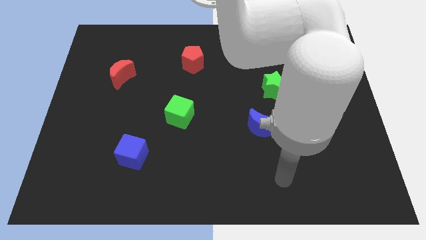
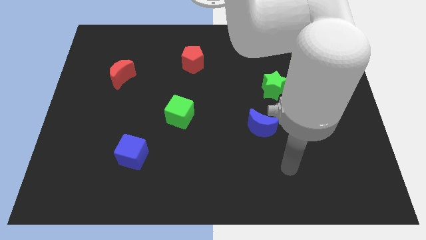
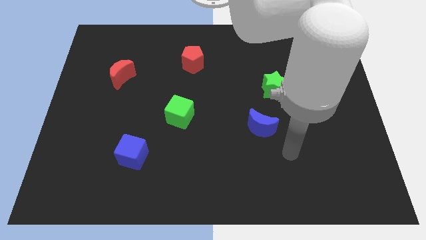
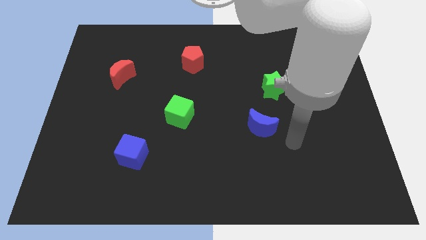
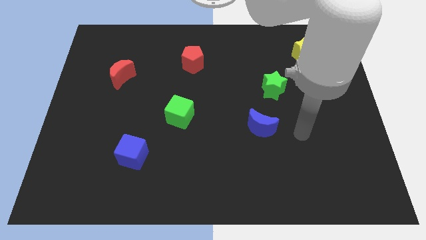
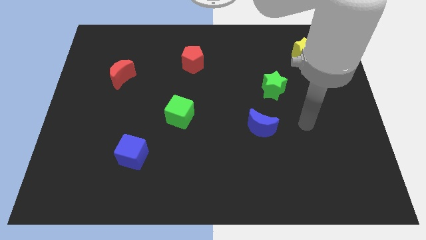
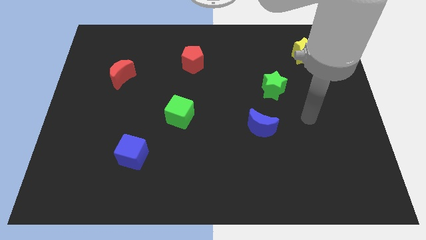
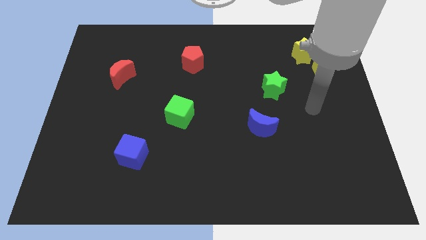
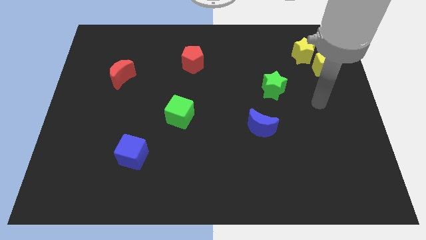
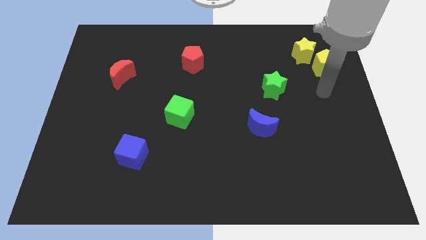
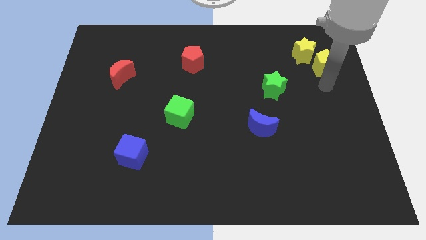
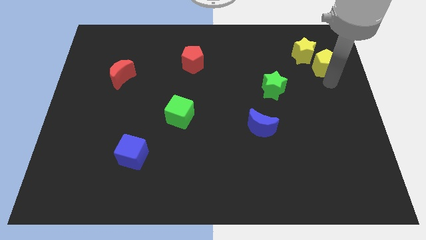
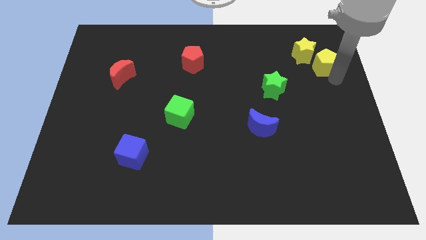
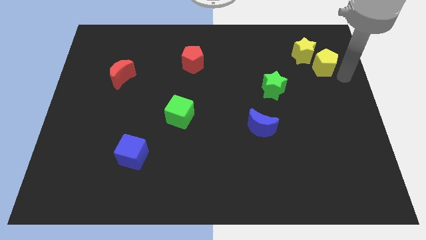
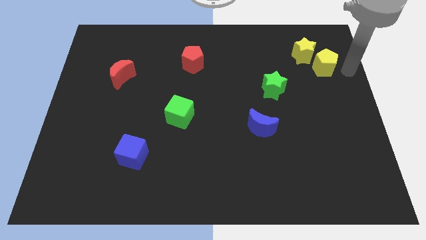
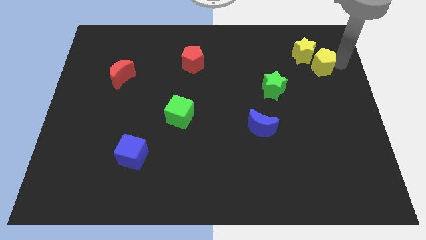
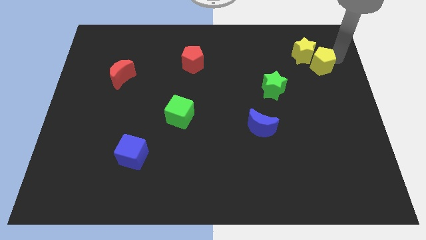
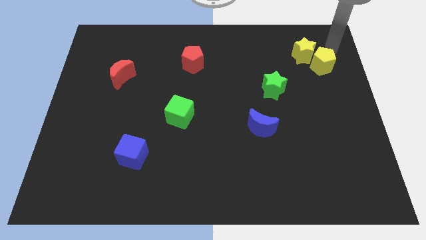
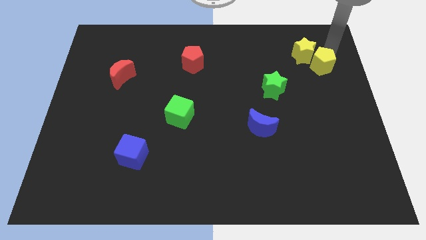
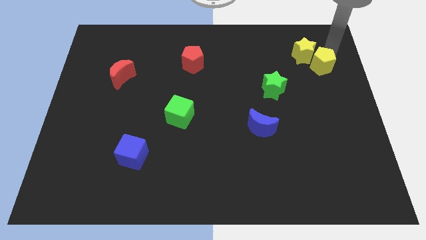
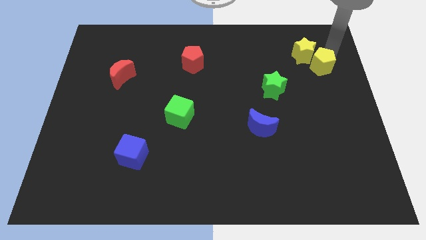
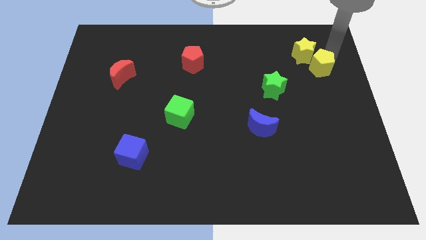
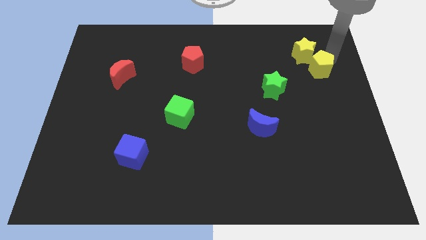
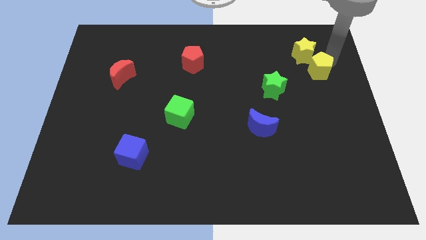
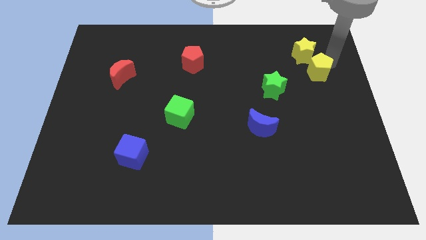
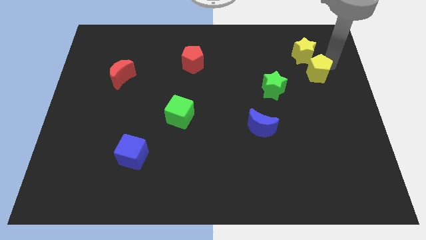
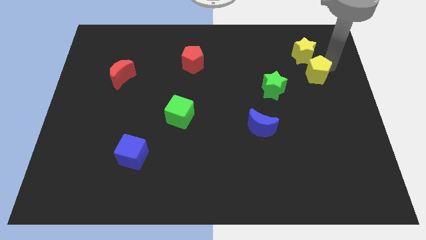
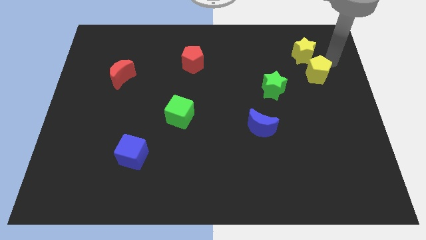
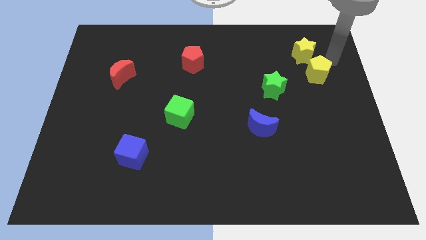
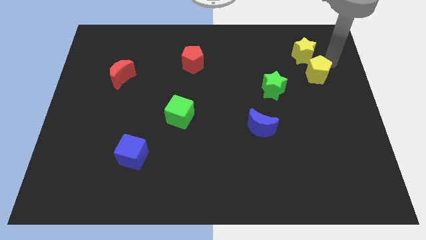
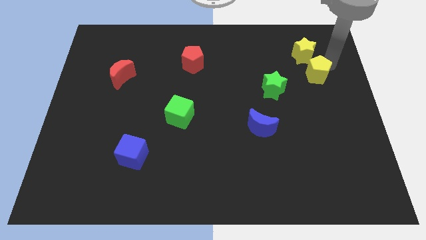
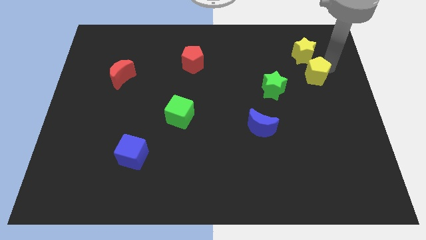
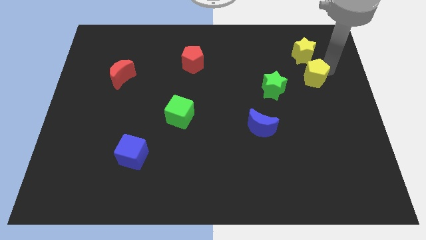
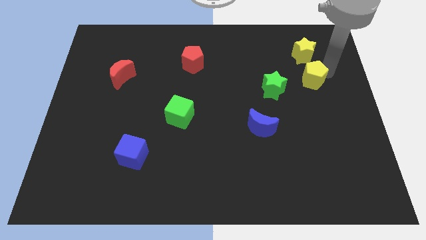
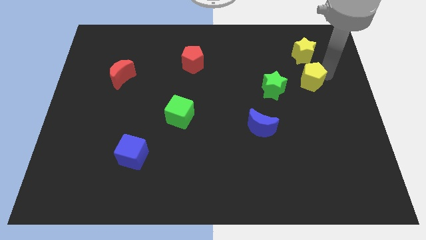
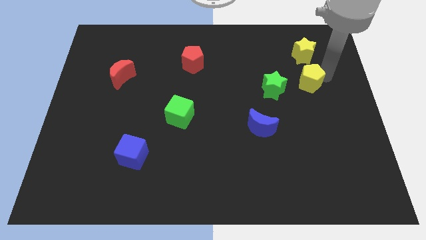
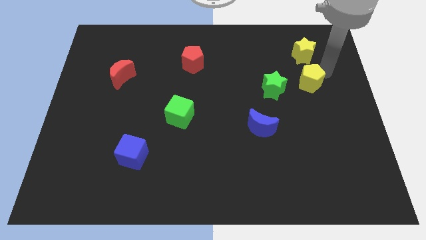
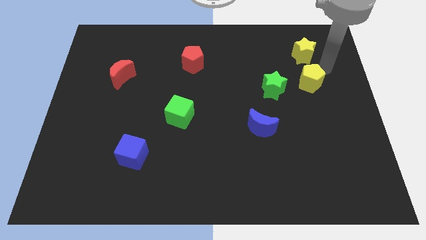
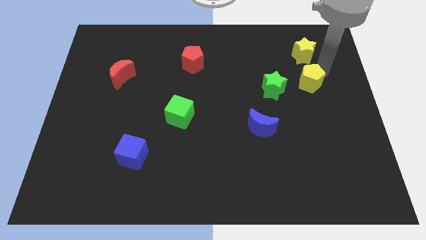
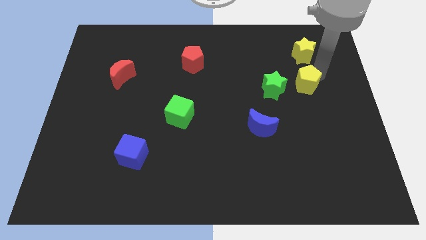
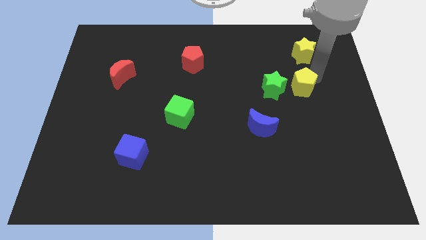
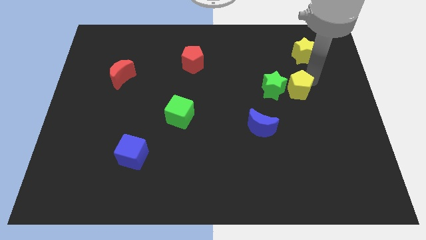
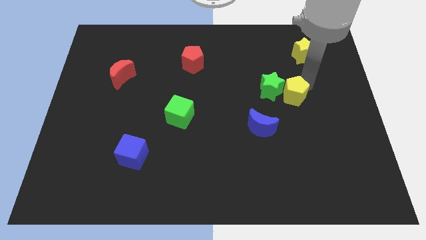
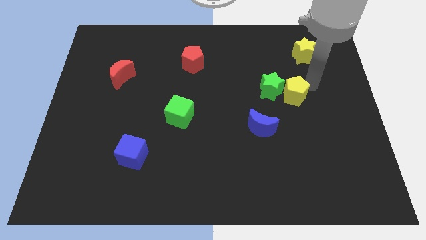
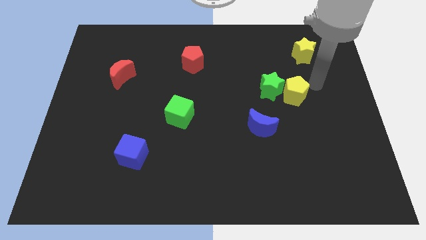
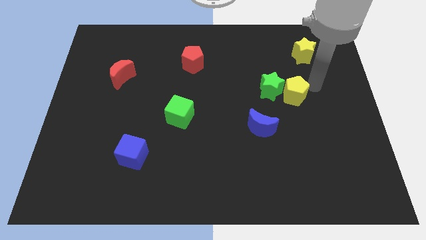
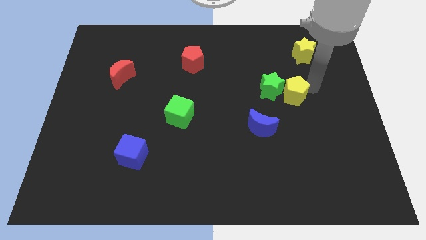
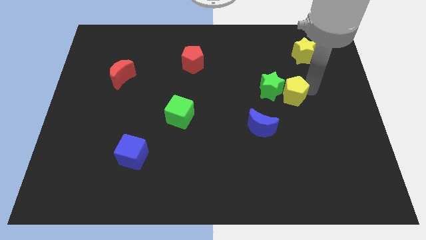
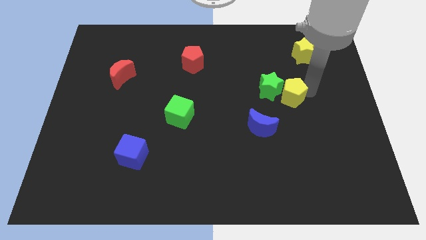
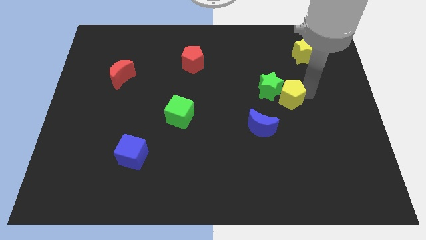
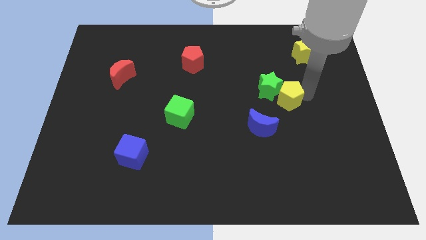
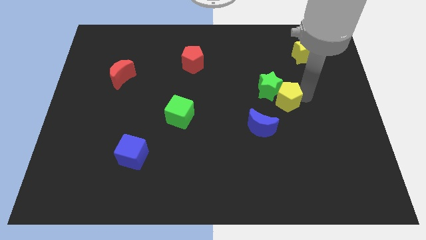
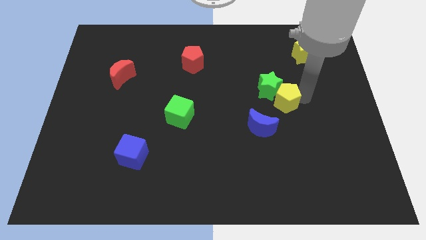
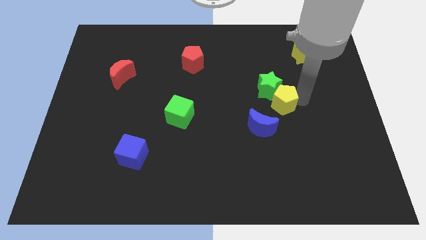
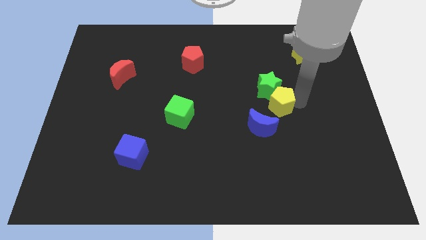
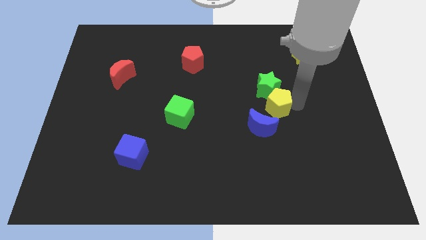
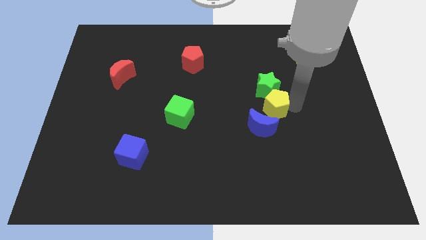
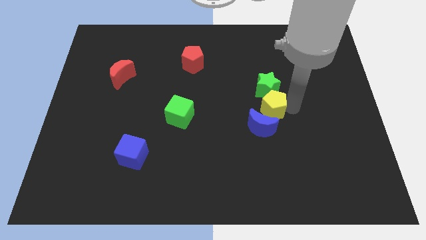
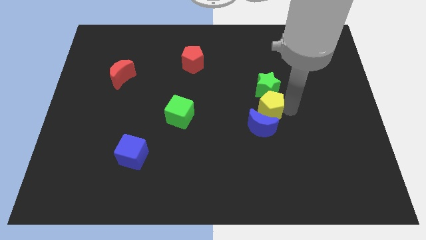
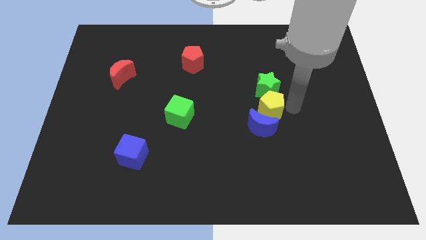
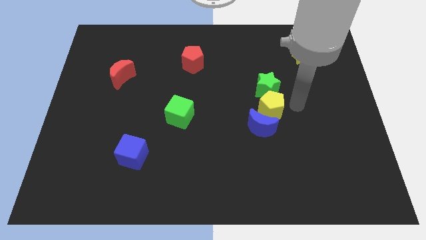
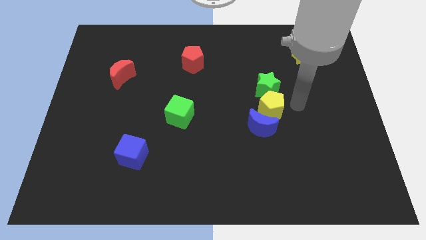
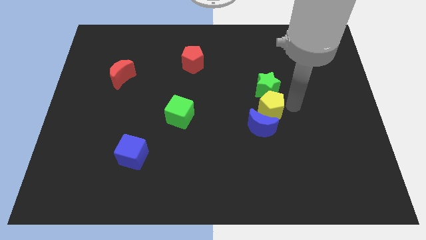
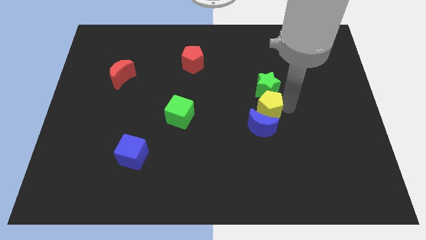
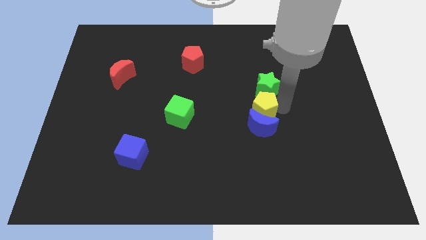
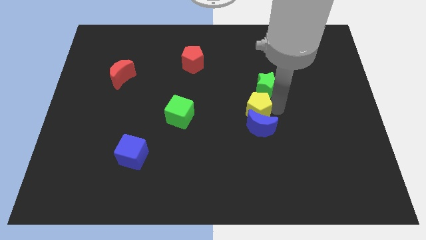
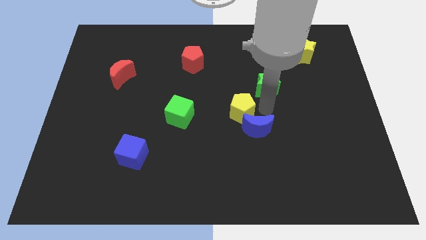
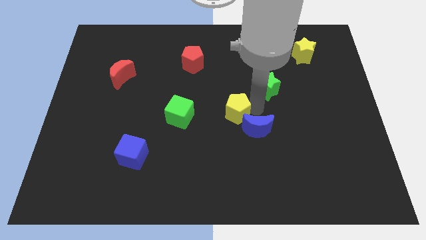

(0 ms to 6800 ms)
slide the yellow pentagon to the left of the blue moon

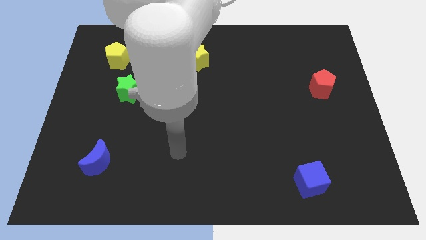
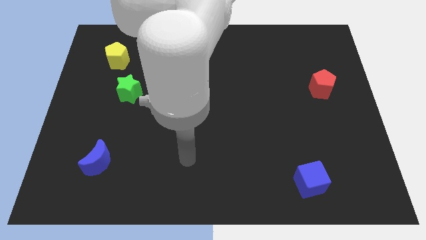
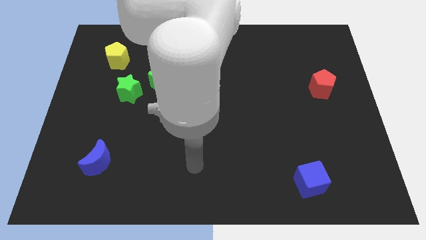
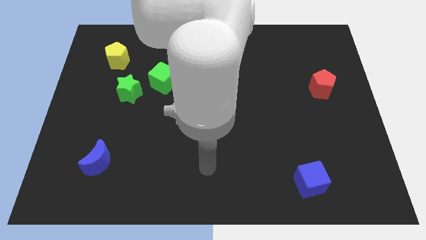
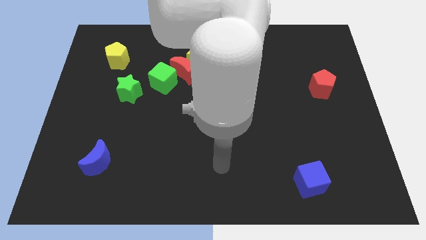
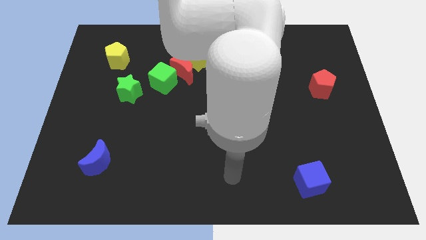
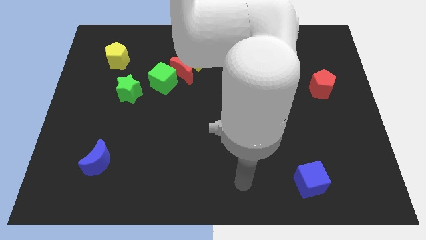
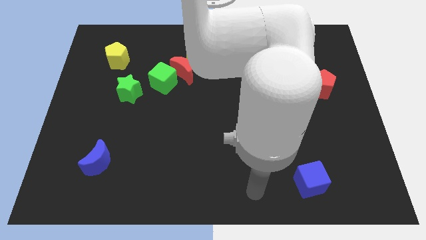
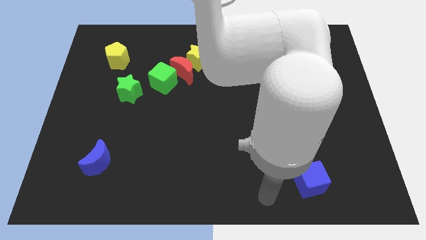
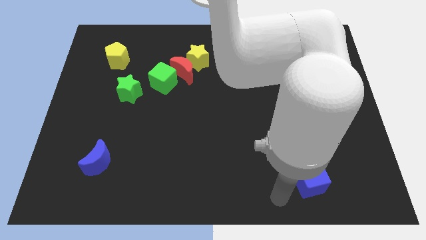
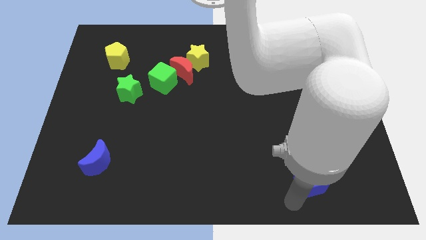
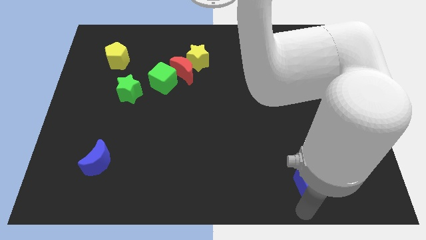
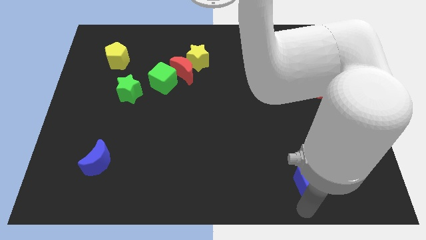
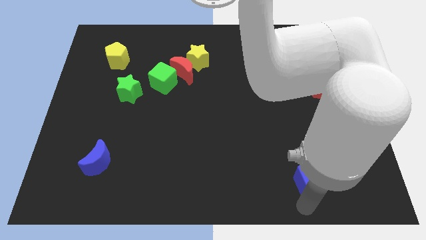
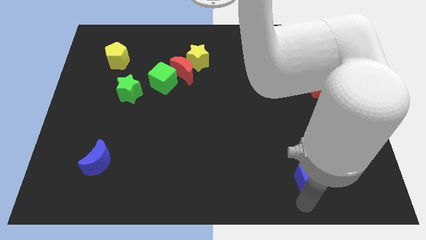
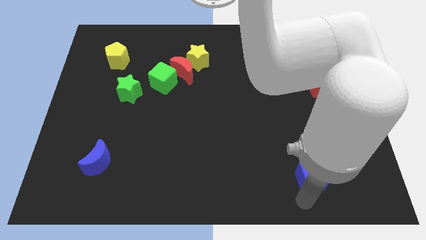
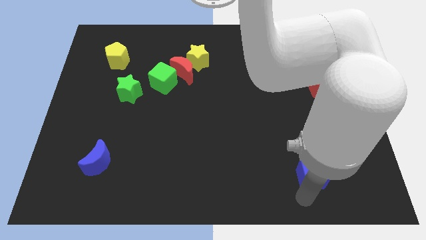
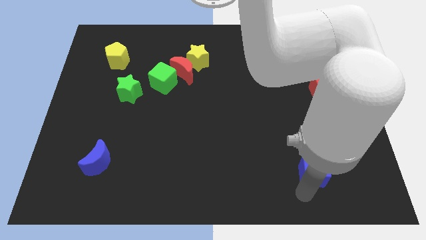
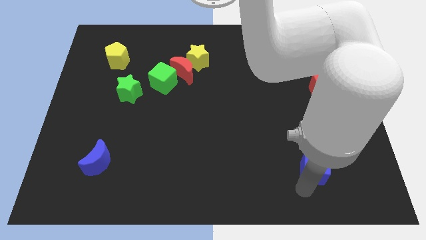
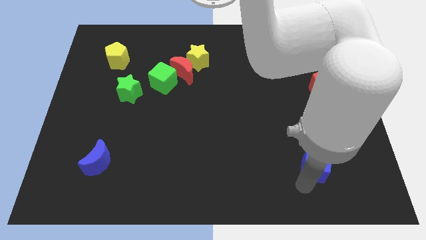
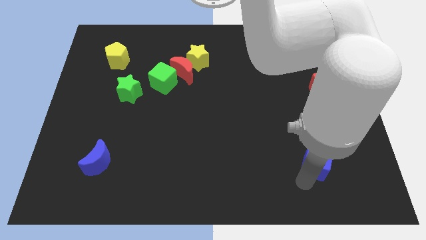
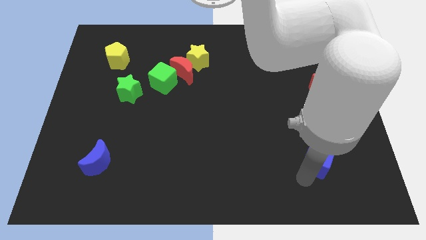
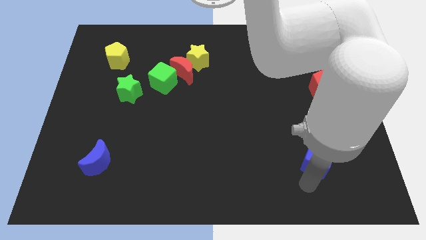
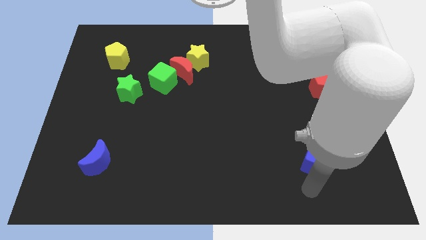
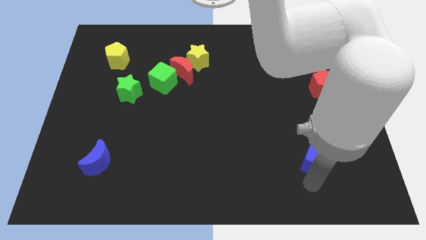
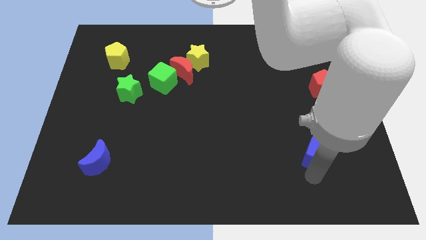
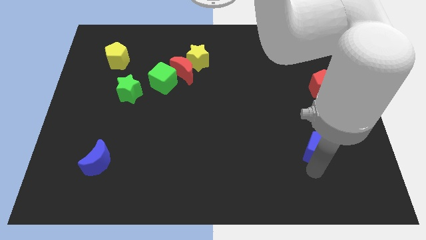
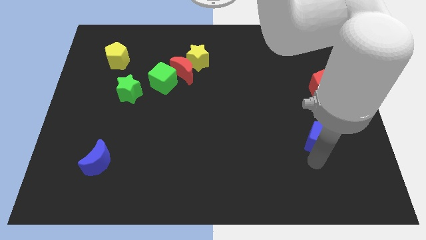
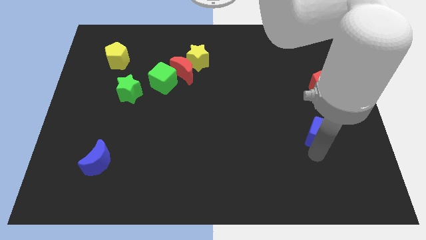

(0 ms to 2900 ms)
put the blue cube to the bottom of the red pentagon
